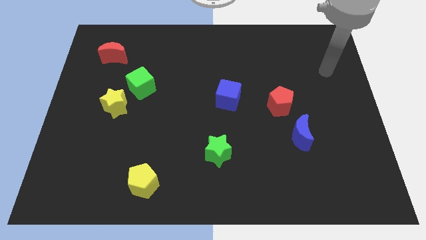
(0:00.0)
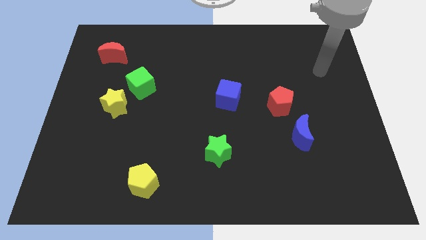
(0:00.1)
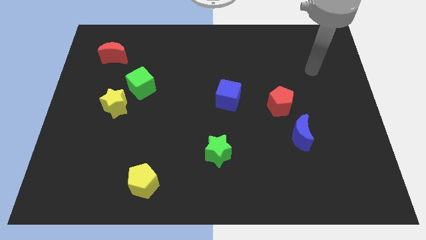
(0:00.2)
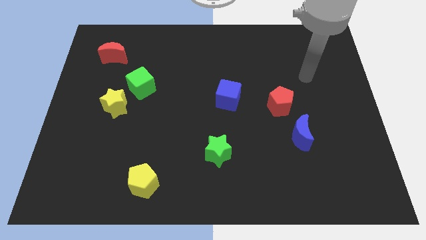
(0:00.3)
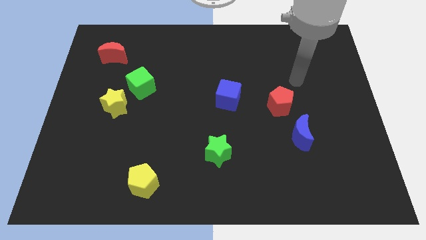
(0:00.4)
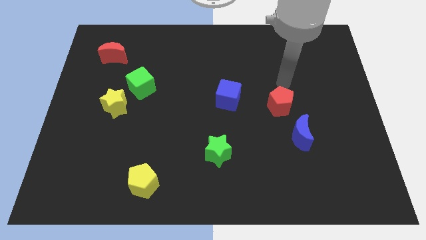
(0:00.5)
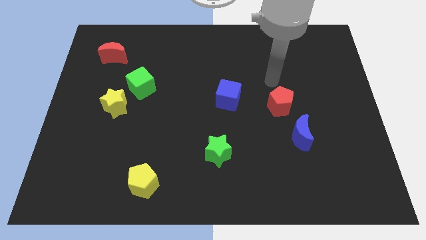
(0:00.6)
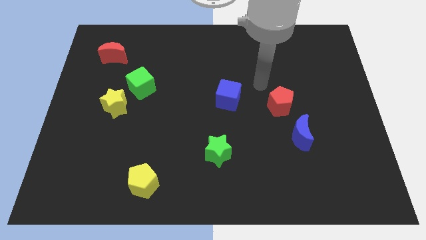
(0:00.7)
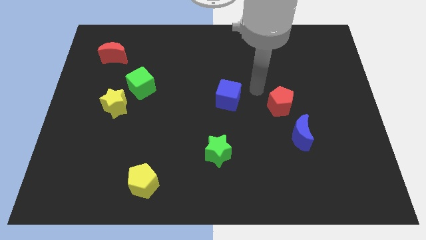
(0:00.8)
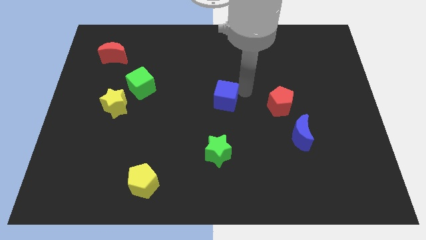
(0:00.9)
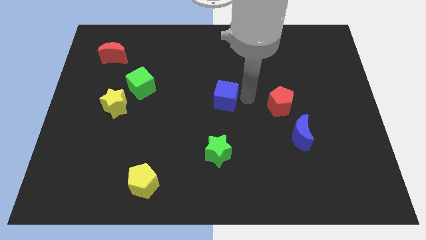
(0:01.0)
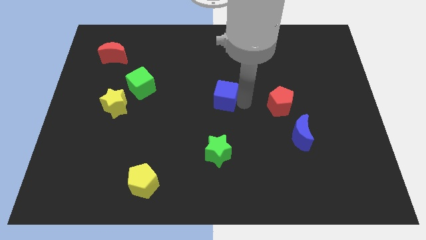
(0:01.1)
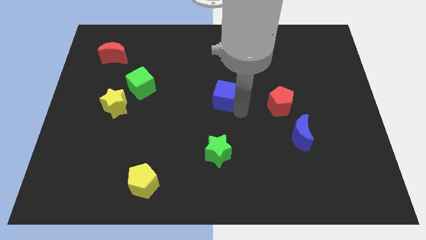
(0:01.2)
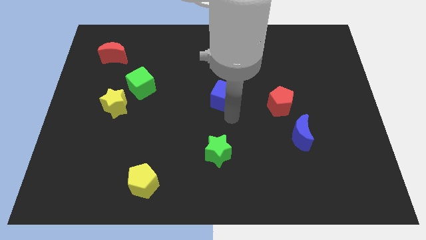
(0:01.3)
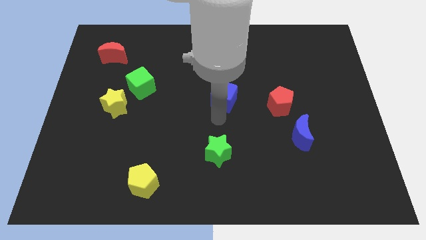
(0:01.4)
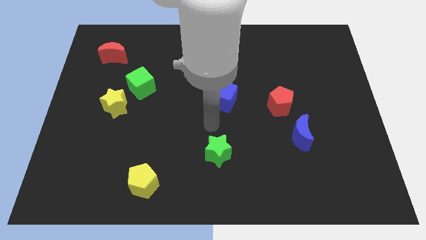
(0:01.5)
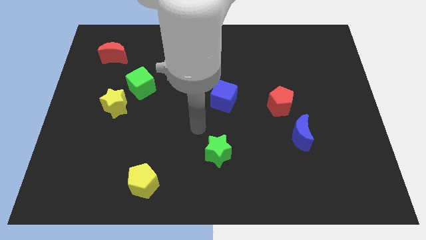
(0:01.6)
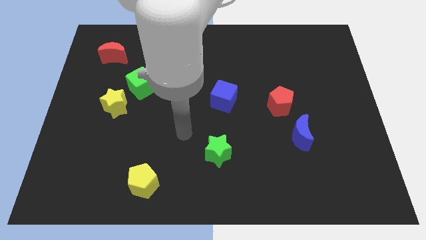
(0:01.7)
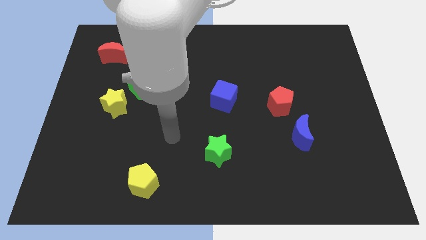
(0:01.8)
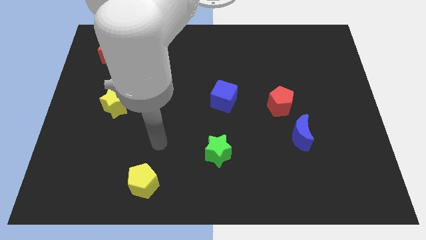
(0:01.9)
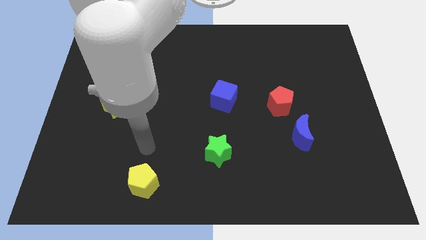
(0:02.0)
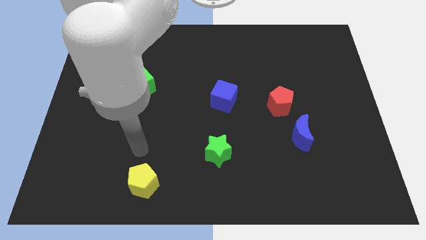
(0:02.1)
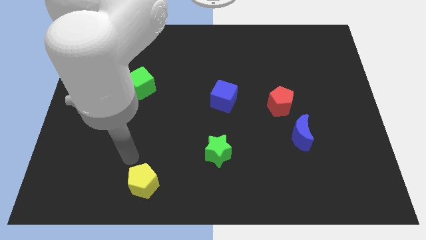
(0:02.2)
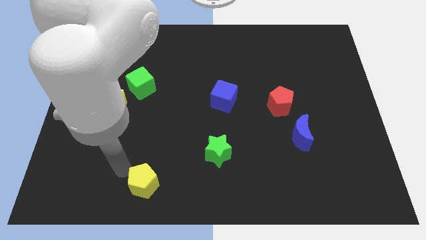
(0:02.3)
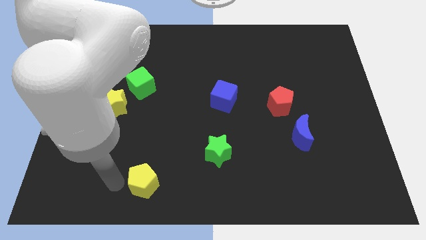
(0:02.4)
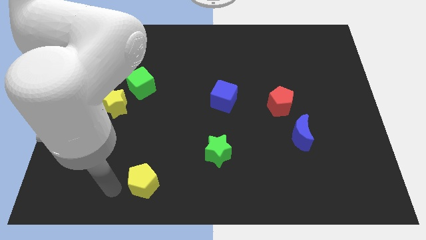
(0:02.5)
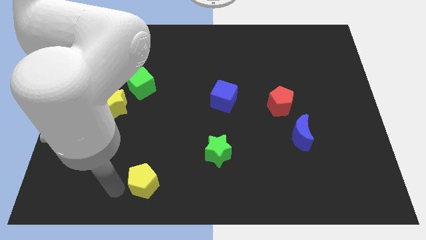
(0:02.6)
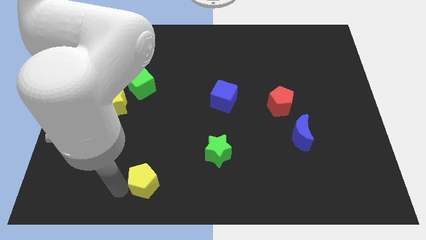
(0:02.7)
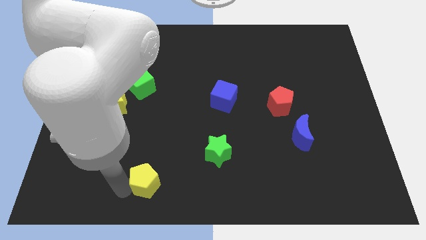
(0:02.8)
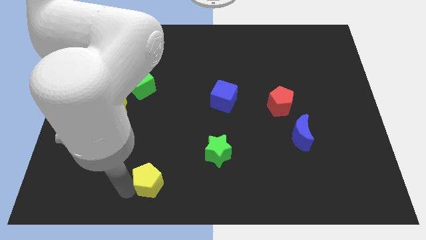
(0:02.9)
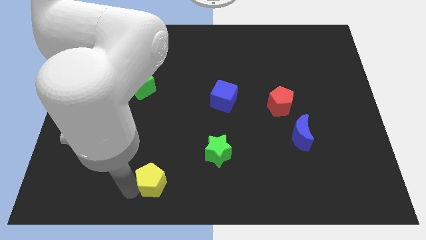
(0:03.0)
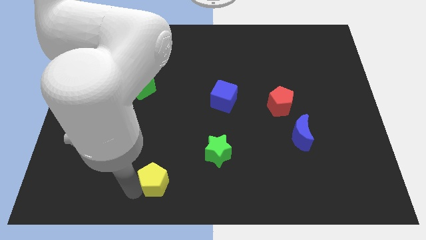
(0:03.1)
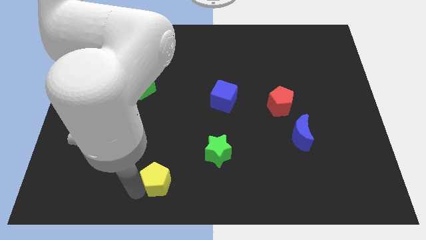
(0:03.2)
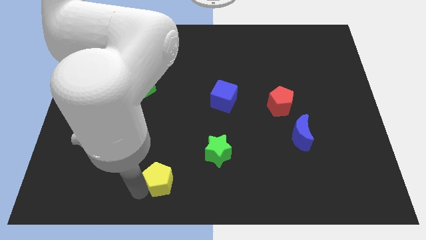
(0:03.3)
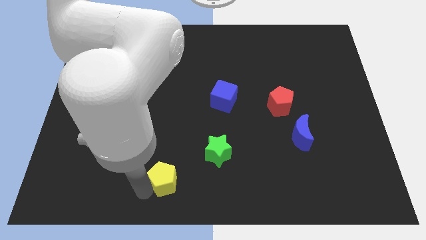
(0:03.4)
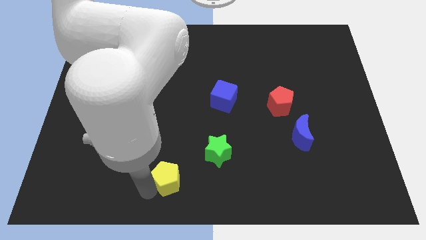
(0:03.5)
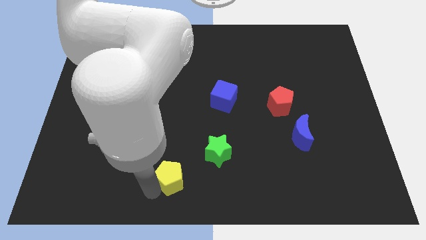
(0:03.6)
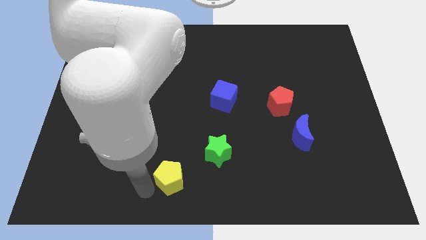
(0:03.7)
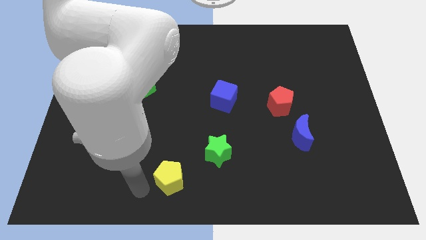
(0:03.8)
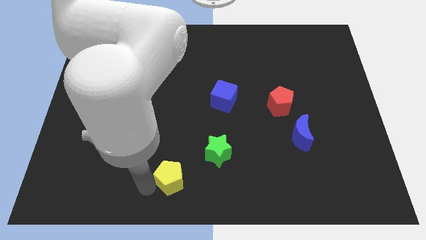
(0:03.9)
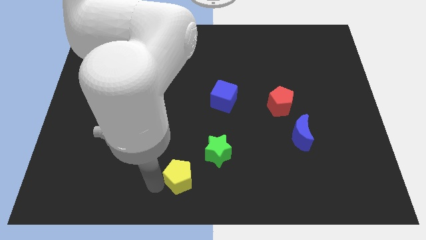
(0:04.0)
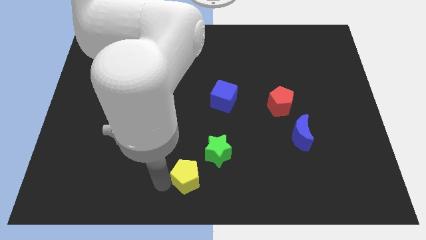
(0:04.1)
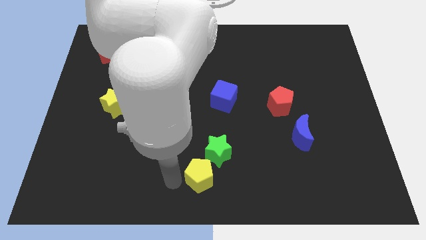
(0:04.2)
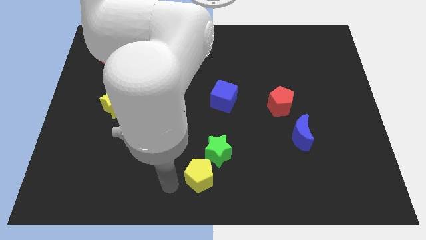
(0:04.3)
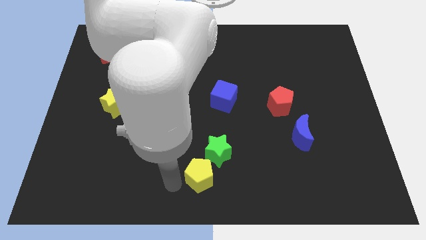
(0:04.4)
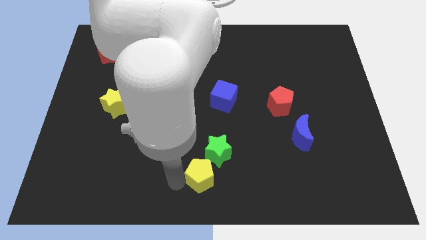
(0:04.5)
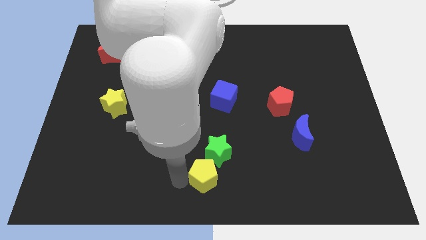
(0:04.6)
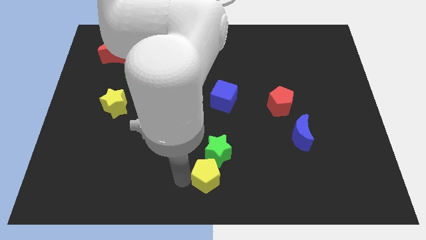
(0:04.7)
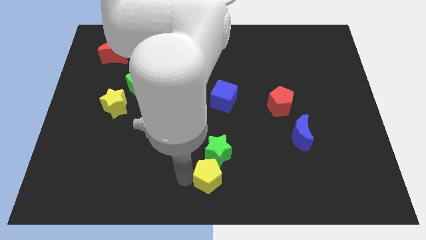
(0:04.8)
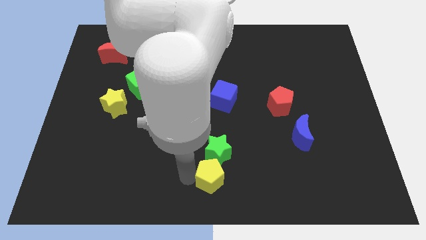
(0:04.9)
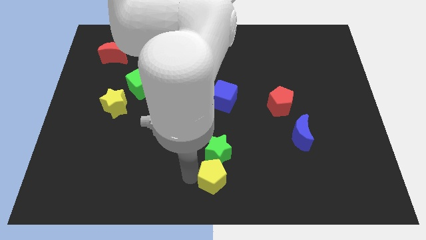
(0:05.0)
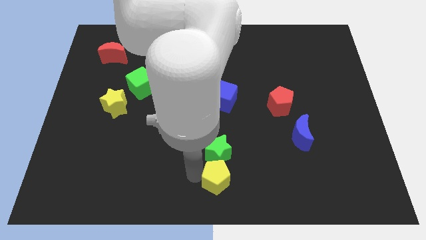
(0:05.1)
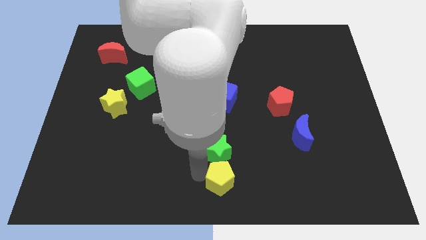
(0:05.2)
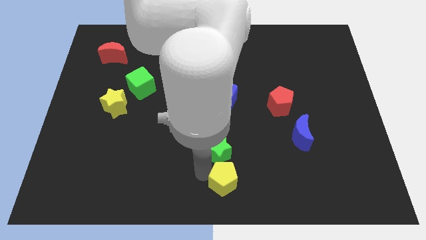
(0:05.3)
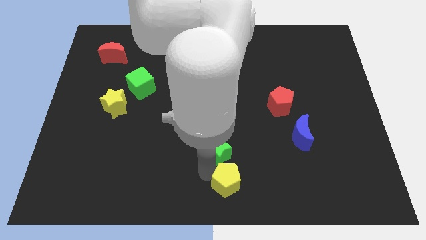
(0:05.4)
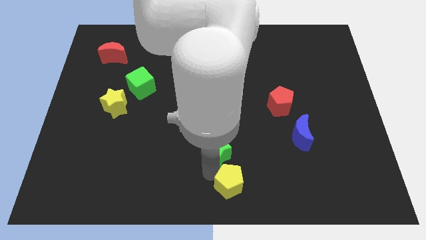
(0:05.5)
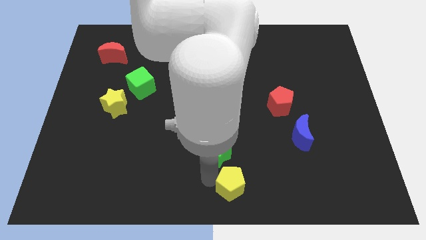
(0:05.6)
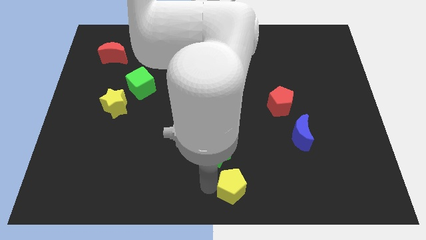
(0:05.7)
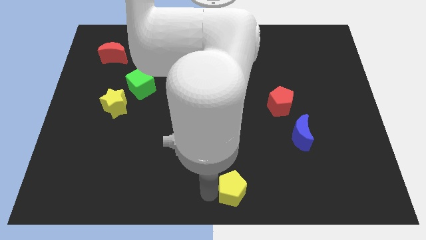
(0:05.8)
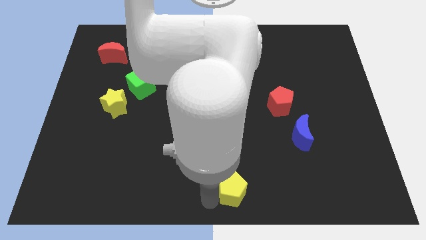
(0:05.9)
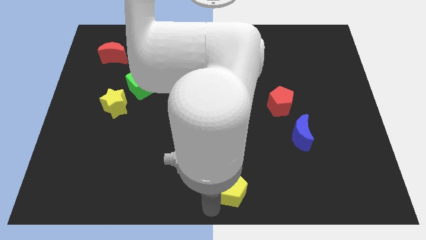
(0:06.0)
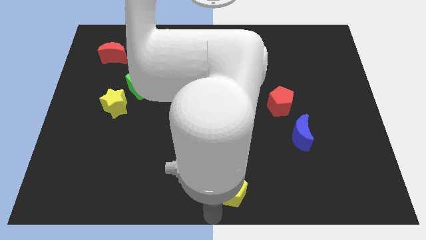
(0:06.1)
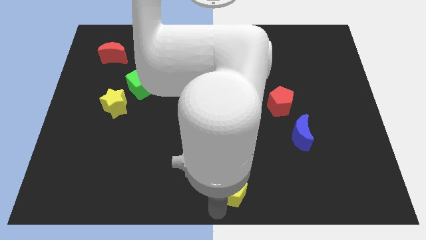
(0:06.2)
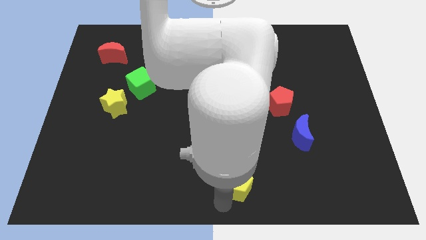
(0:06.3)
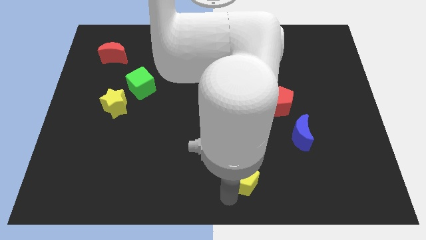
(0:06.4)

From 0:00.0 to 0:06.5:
move the yellow pentagon right

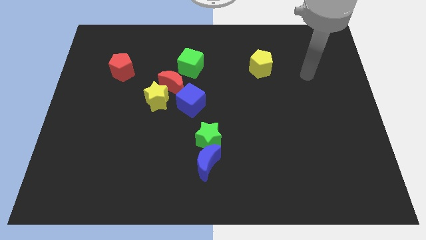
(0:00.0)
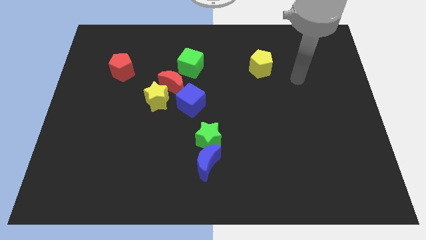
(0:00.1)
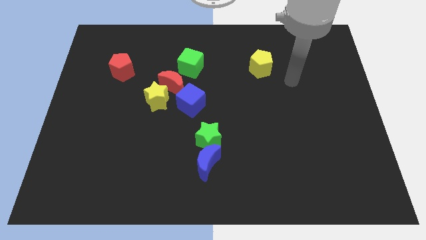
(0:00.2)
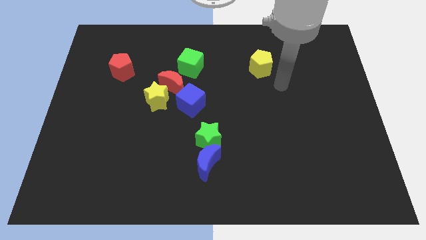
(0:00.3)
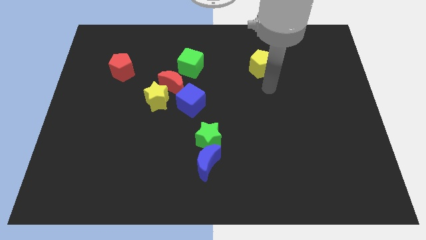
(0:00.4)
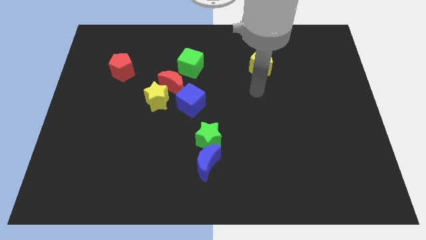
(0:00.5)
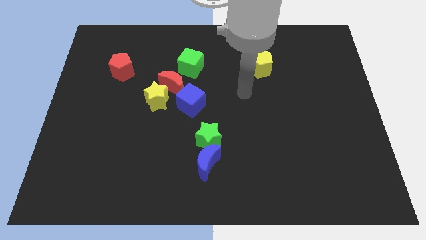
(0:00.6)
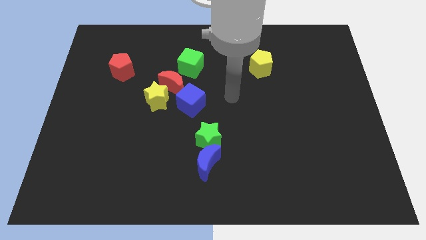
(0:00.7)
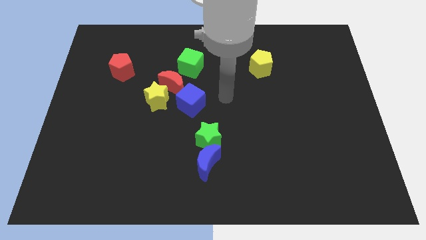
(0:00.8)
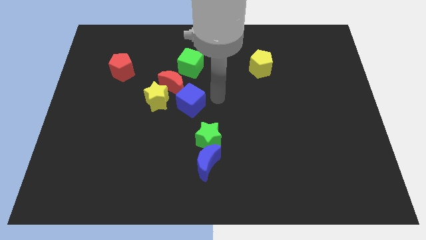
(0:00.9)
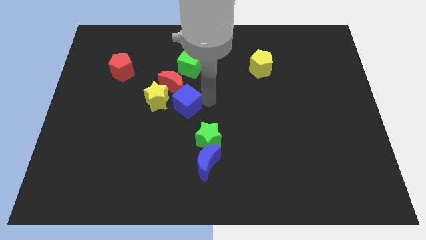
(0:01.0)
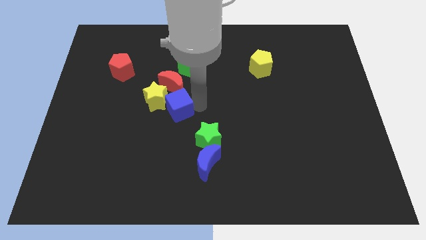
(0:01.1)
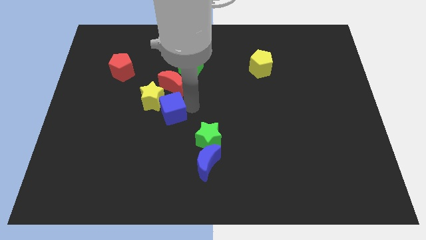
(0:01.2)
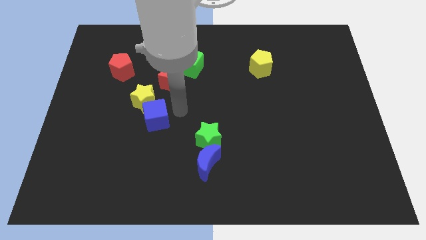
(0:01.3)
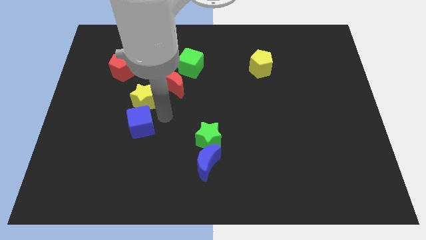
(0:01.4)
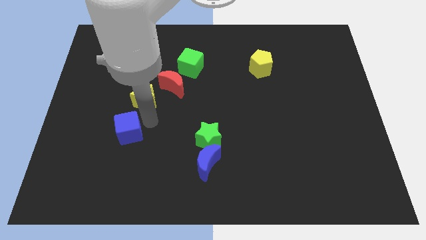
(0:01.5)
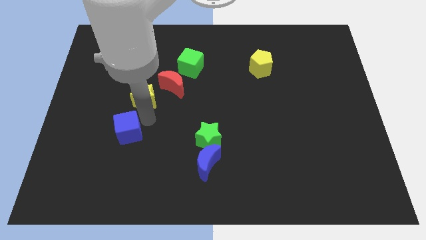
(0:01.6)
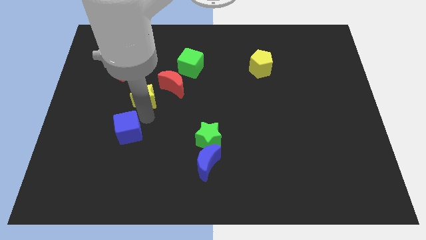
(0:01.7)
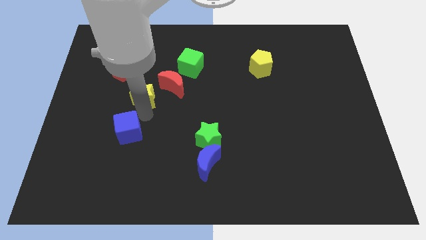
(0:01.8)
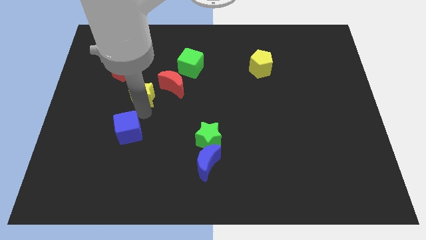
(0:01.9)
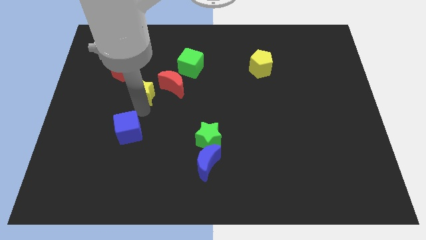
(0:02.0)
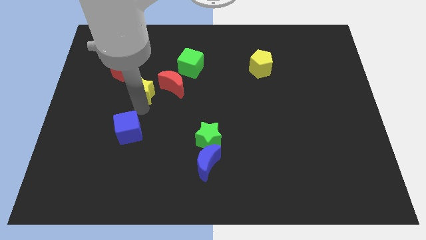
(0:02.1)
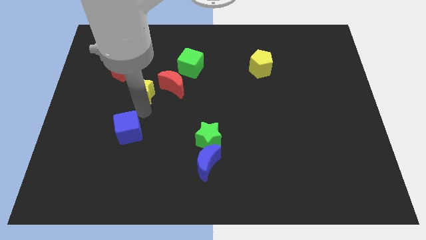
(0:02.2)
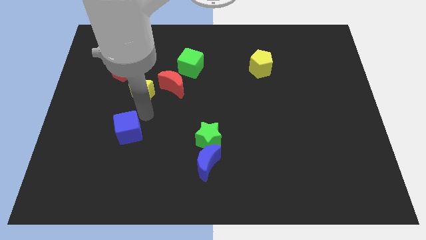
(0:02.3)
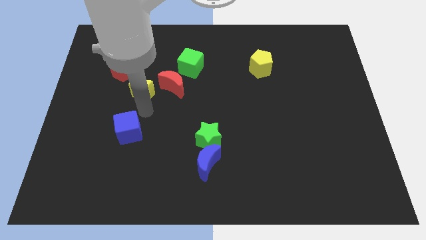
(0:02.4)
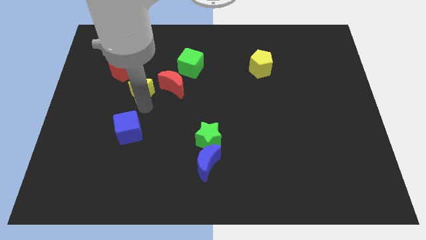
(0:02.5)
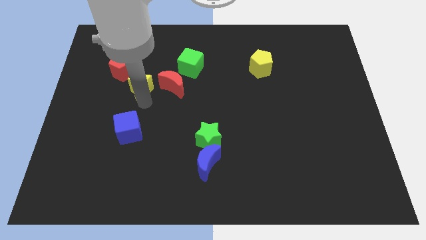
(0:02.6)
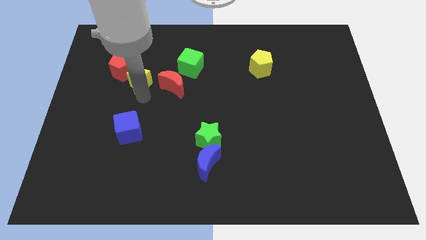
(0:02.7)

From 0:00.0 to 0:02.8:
slide the yellow star upwards and left diagonally a bit
